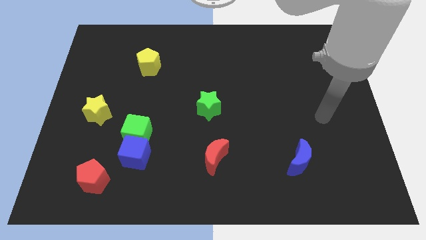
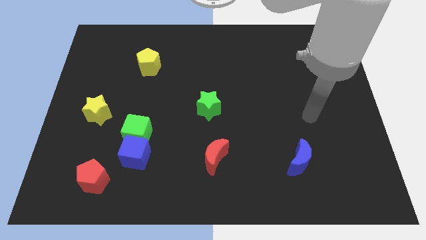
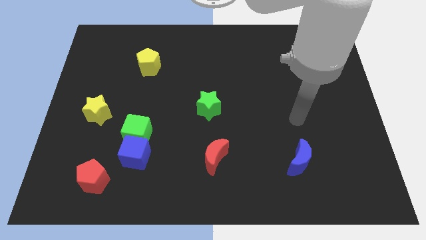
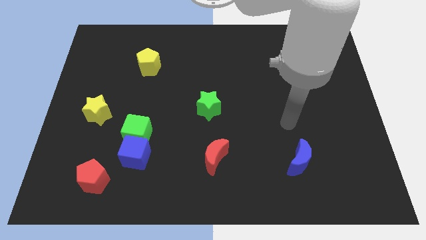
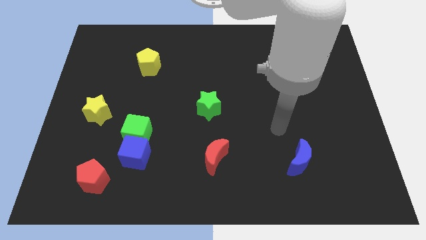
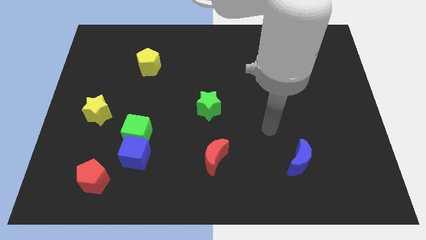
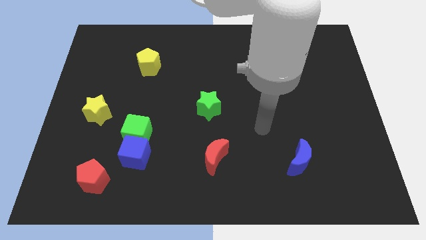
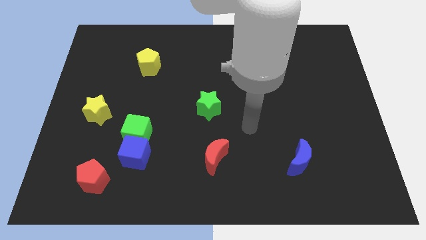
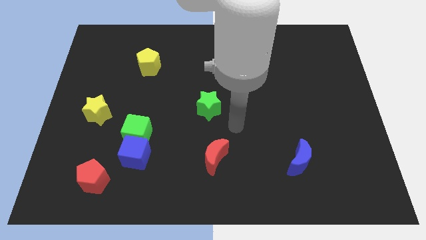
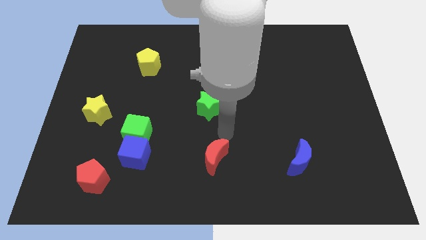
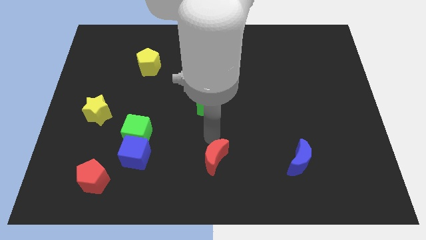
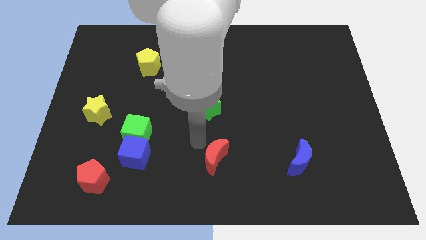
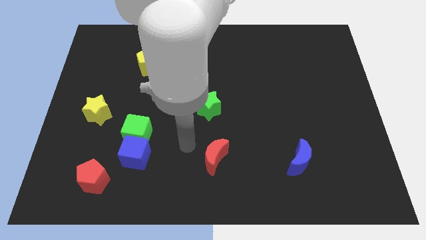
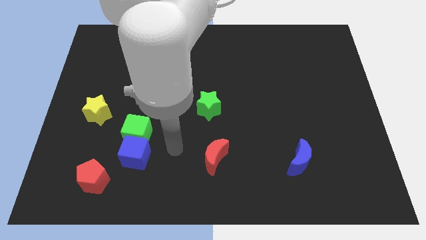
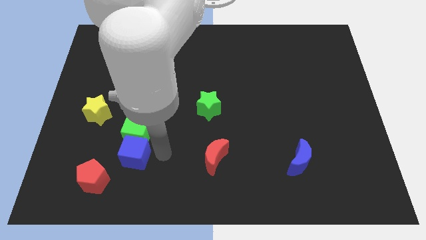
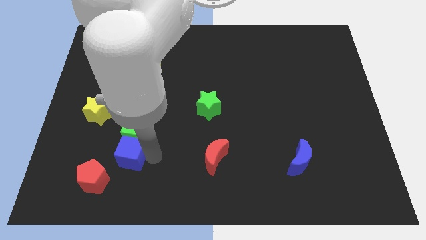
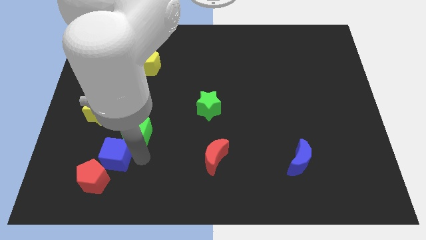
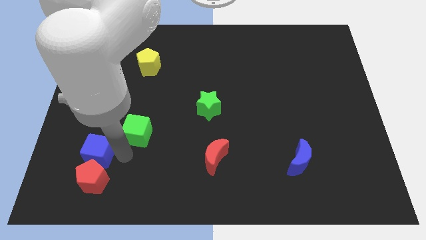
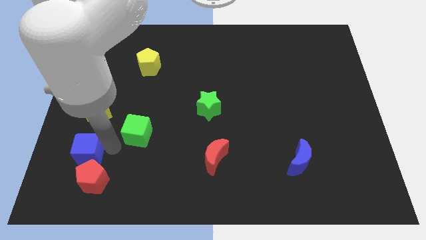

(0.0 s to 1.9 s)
move the green cube away from the blue cube

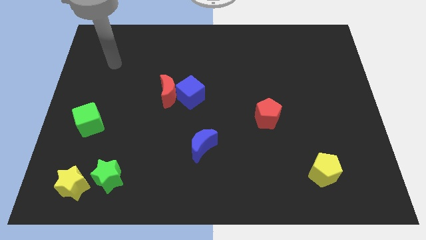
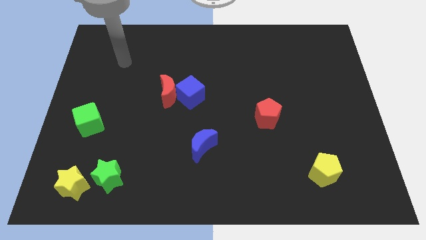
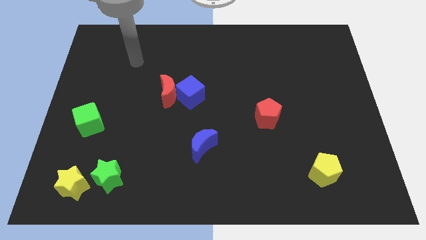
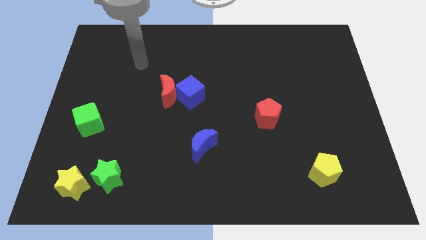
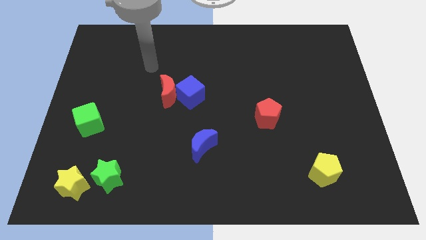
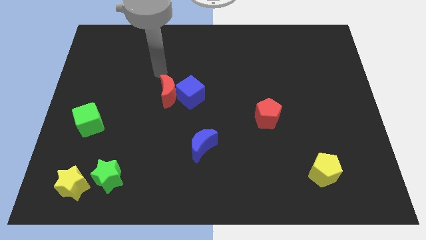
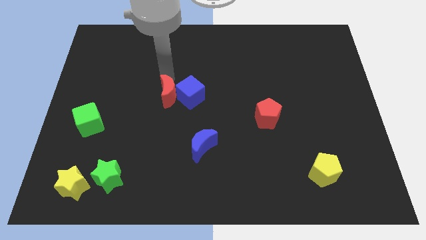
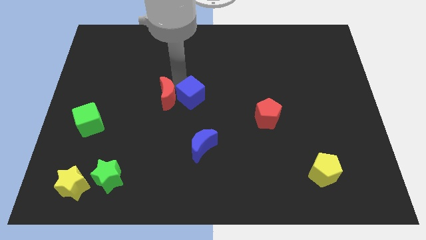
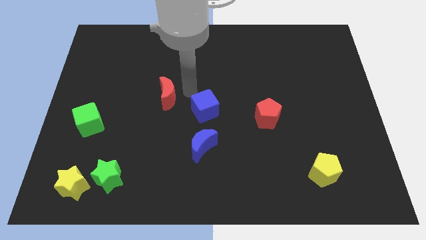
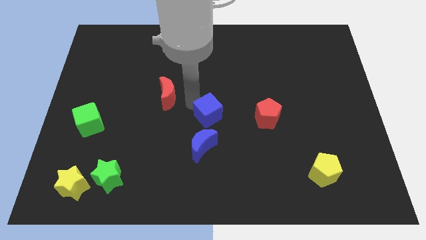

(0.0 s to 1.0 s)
separate the red moon from the blue cube

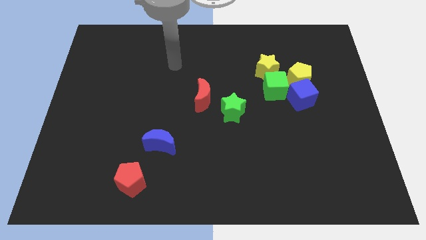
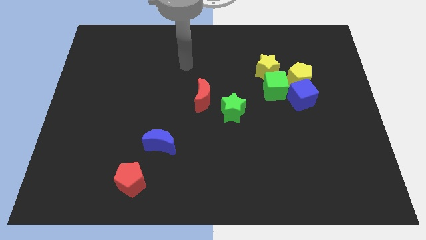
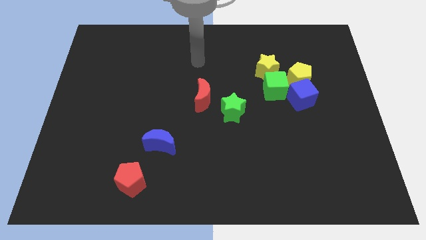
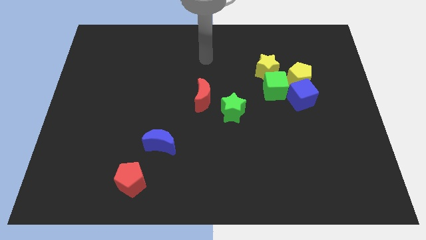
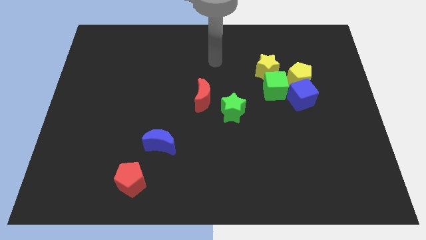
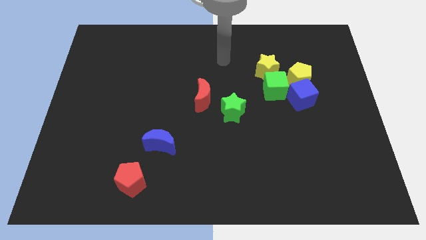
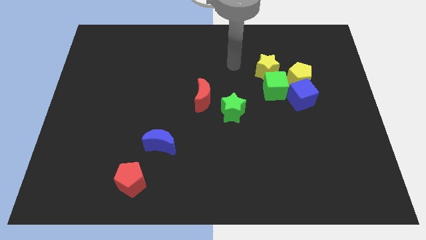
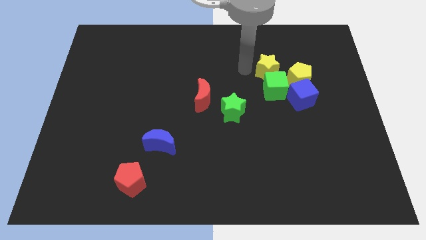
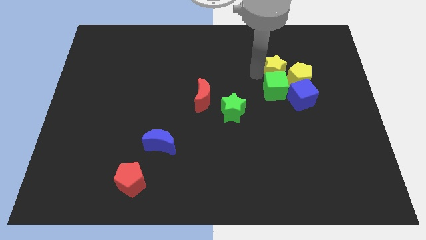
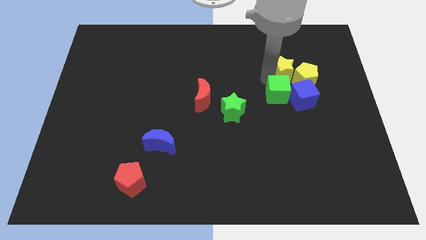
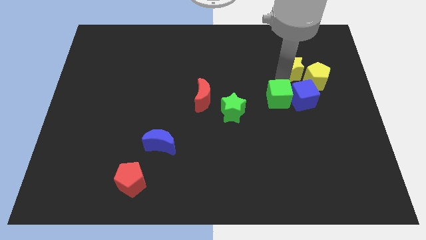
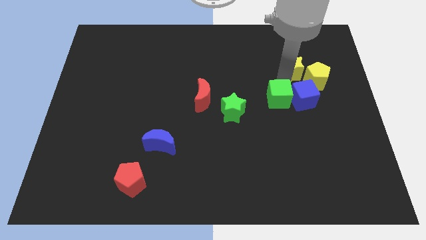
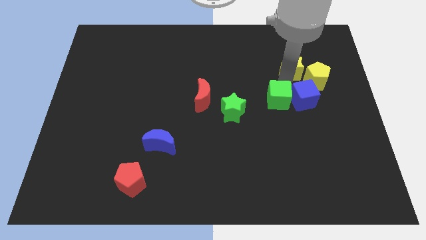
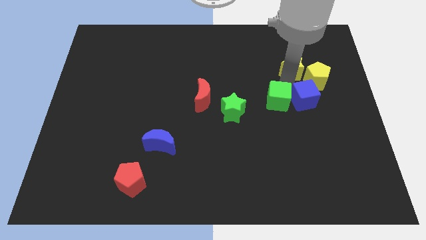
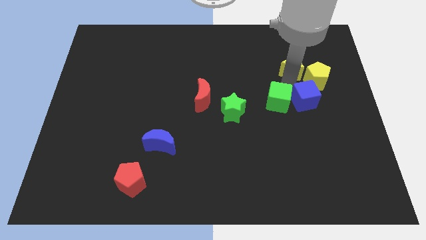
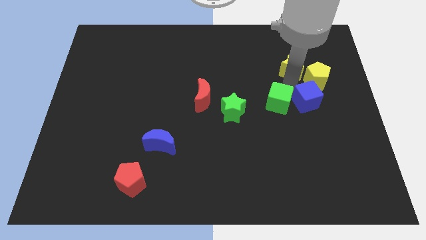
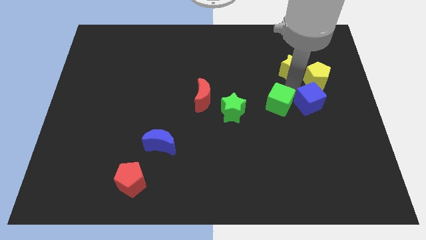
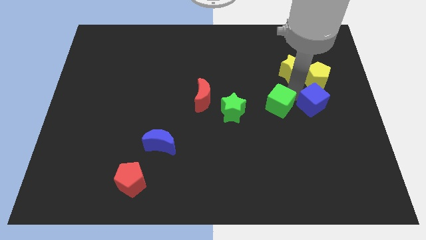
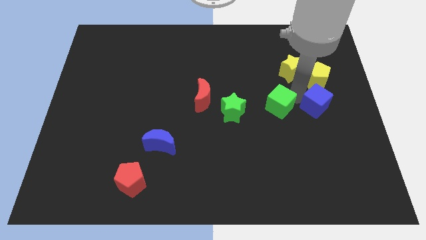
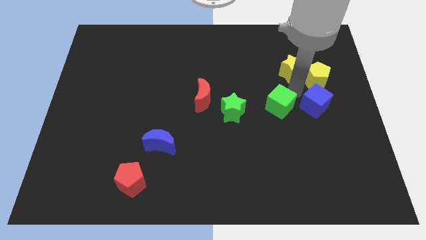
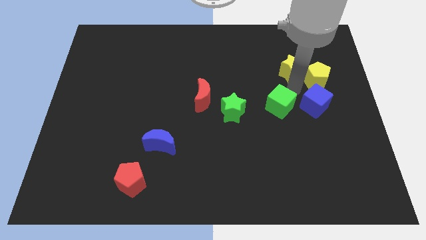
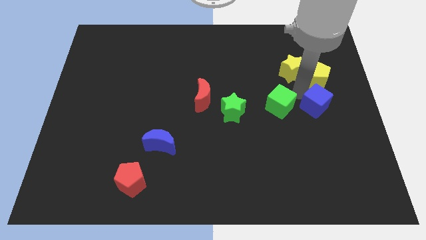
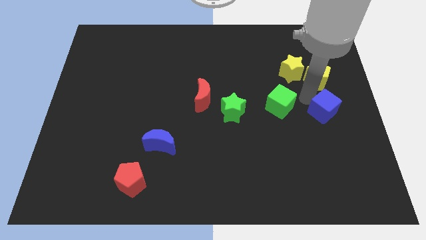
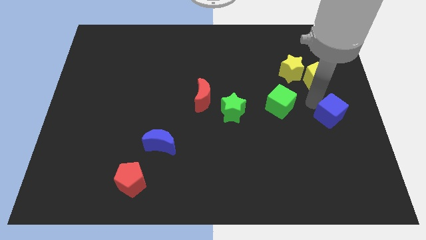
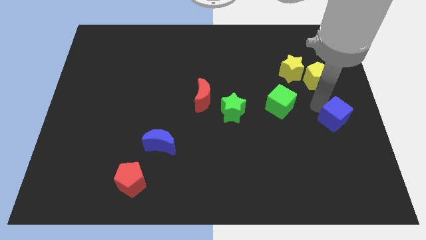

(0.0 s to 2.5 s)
pull the blue cube apart from the yellow pentagon and green cube

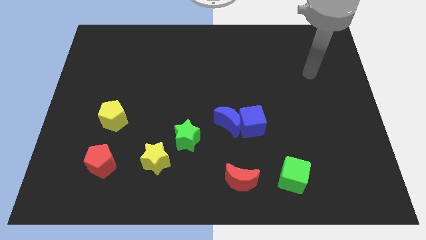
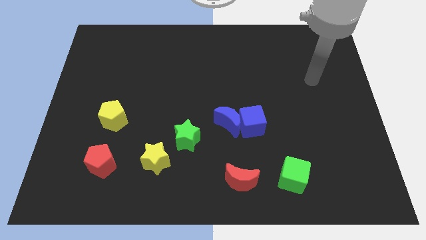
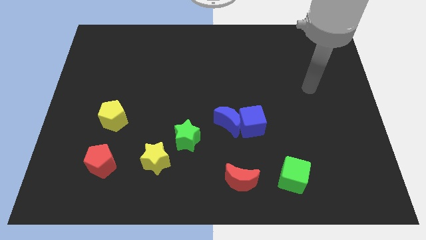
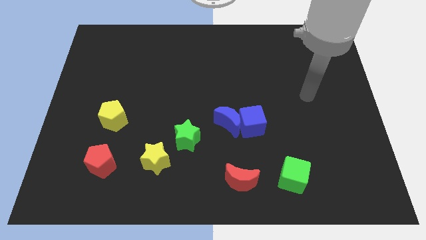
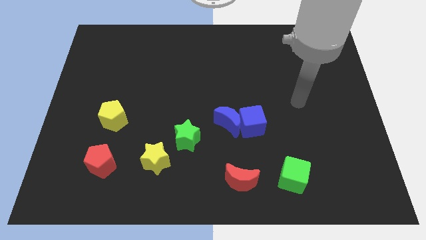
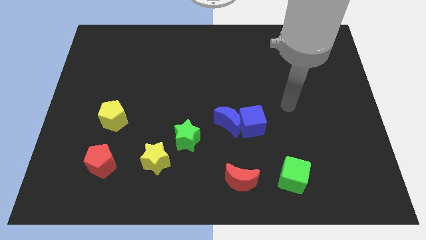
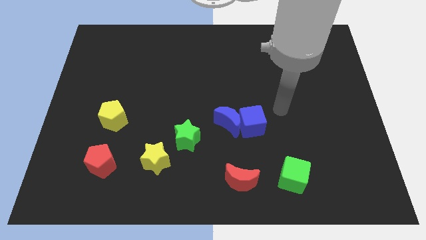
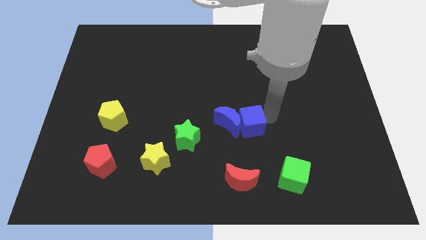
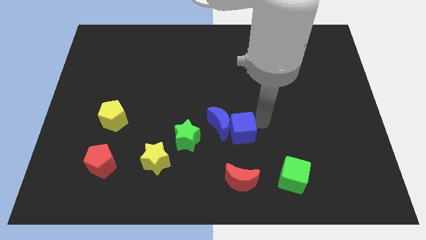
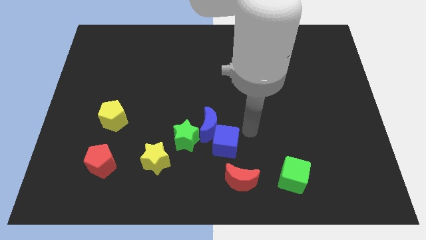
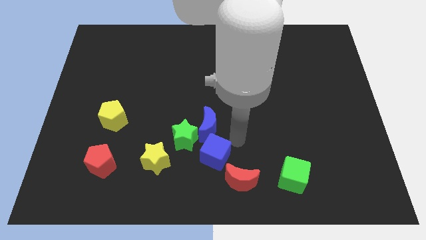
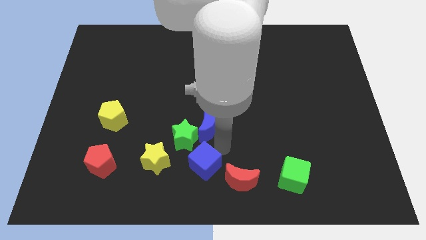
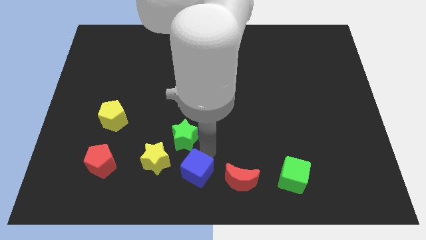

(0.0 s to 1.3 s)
pull the blue moon apart from the blue cube

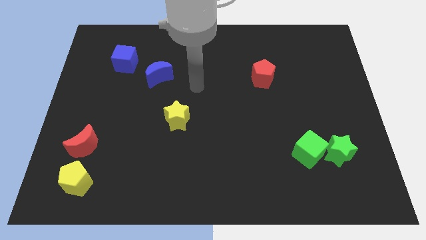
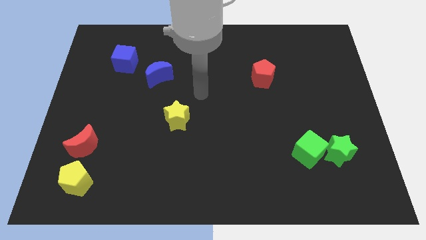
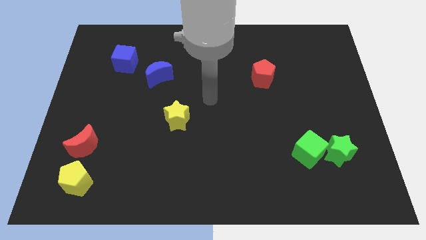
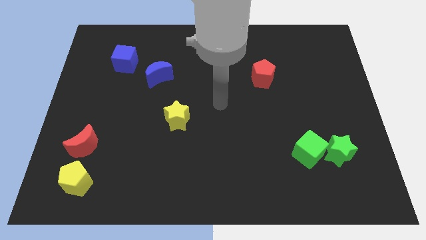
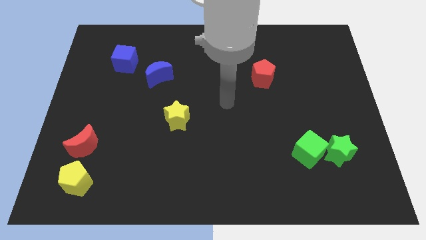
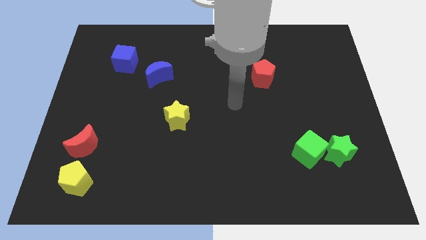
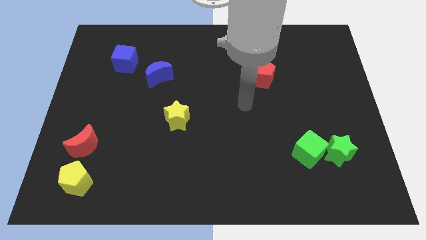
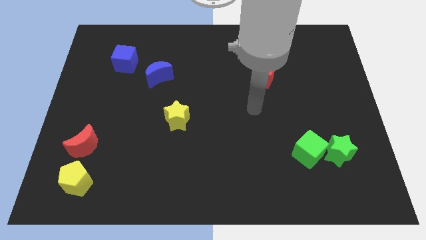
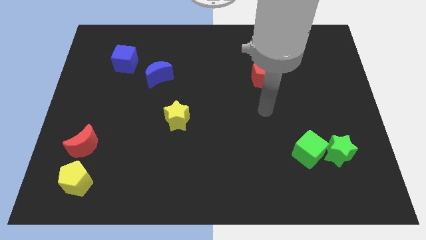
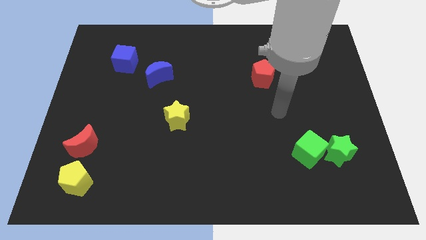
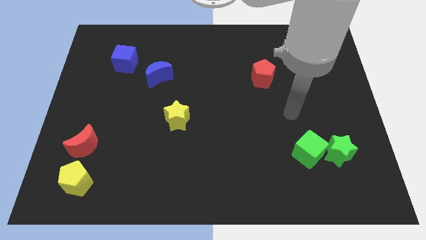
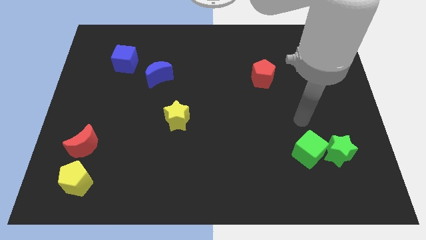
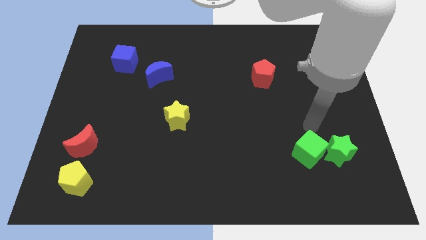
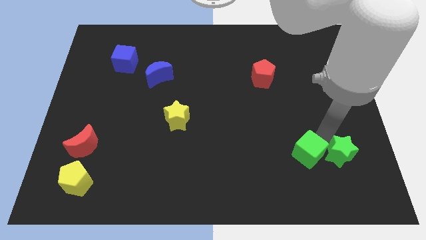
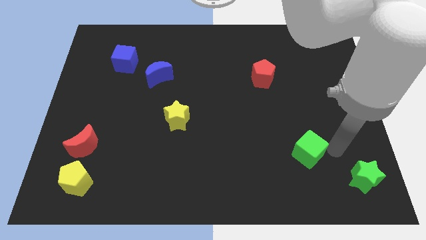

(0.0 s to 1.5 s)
separate the green cube from the green star

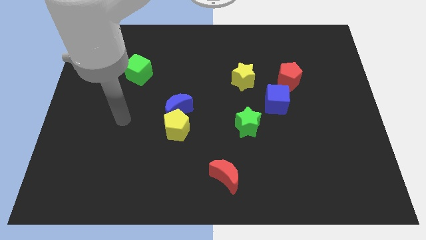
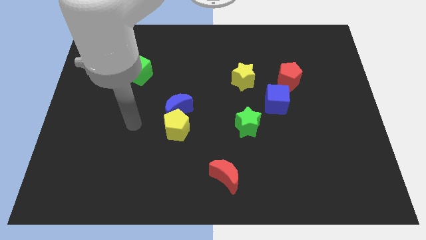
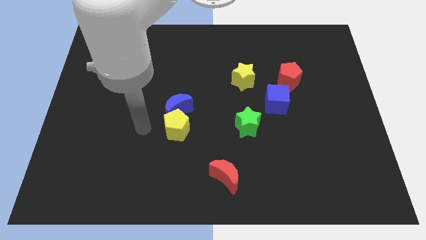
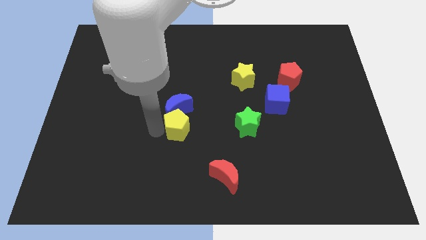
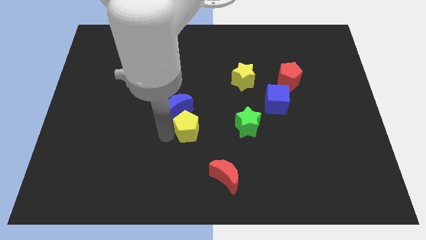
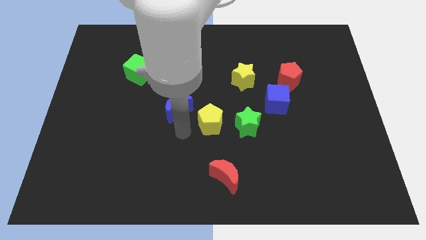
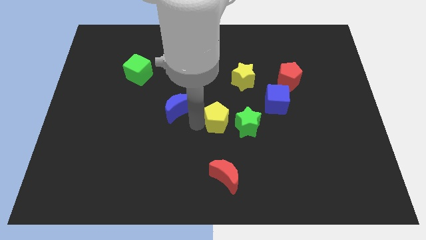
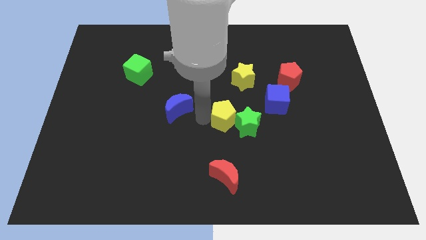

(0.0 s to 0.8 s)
pull the blue moon apart from the yellow pentagon

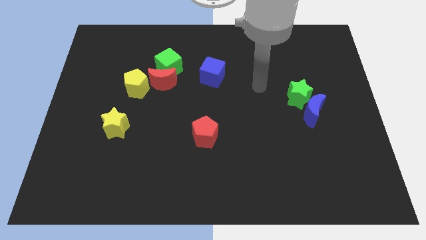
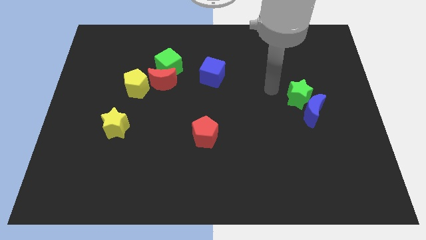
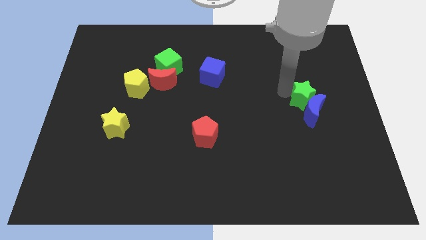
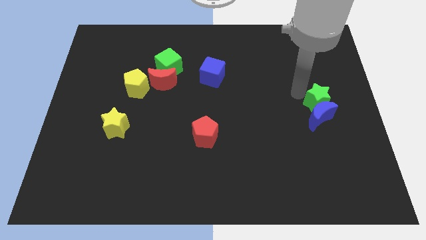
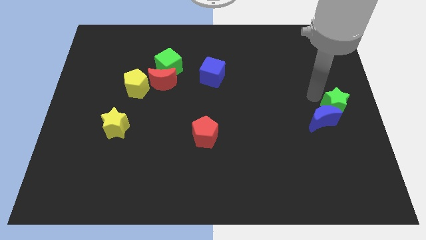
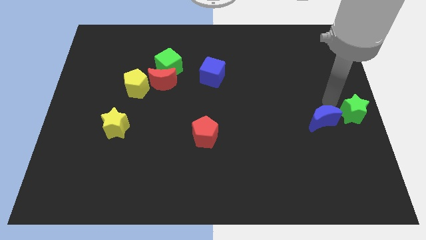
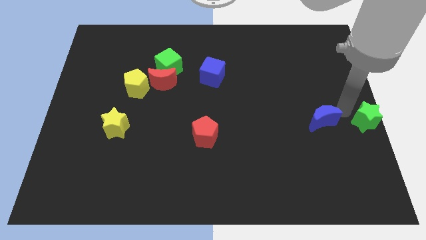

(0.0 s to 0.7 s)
pull the blue moon apart from the green star
